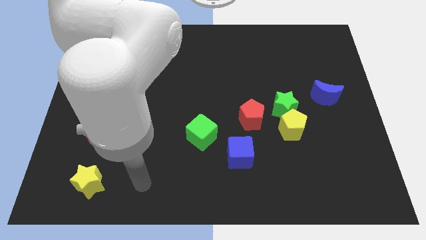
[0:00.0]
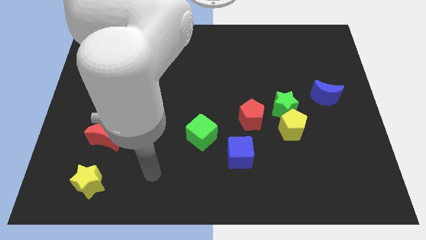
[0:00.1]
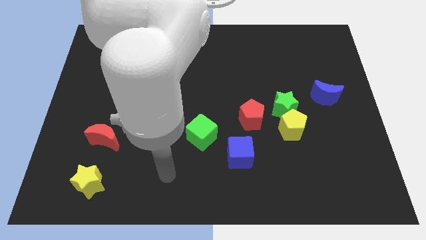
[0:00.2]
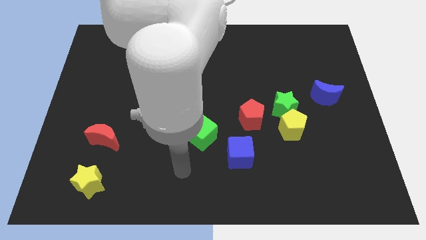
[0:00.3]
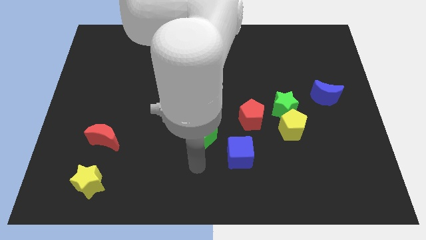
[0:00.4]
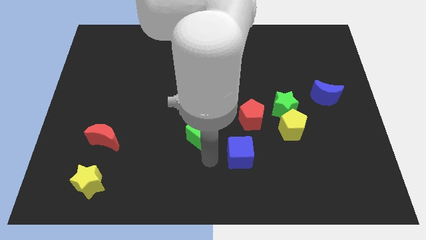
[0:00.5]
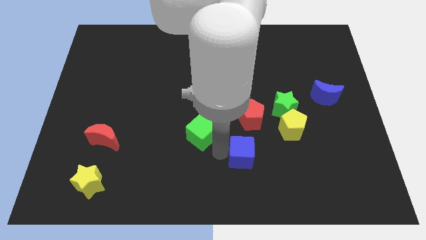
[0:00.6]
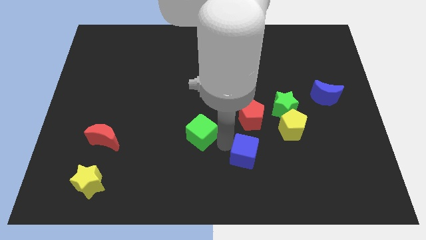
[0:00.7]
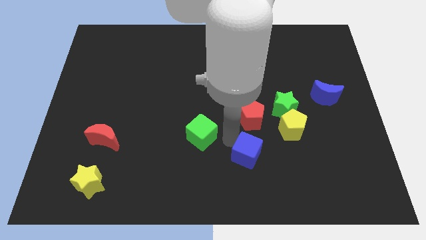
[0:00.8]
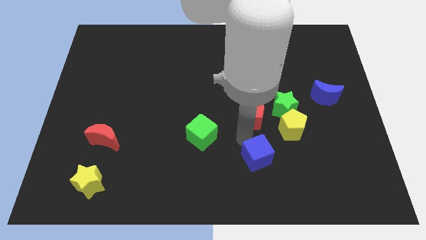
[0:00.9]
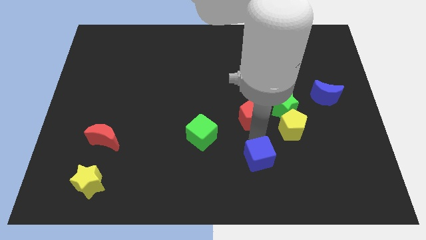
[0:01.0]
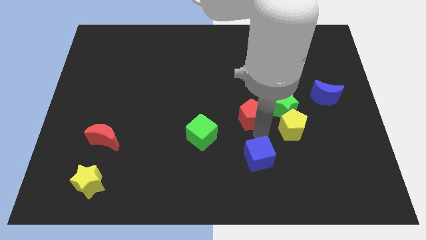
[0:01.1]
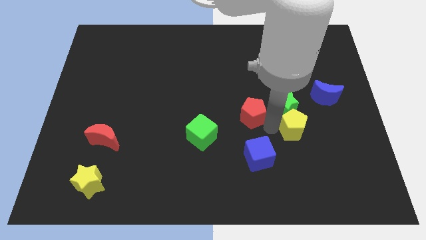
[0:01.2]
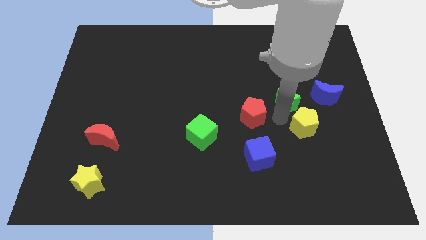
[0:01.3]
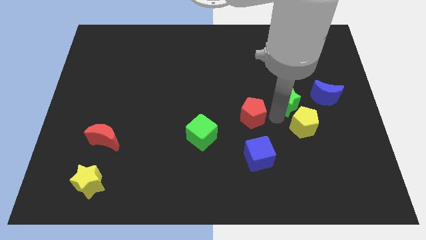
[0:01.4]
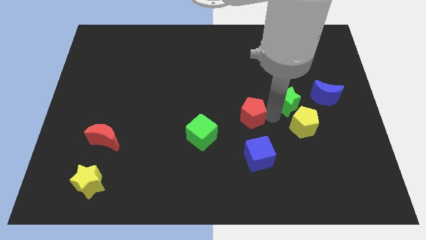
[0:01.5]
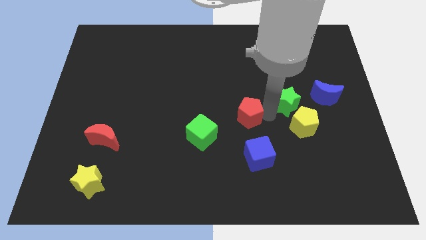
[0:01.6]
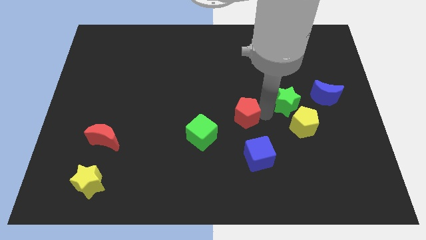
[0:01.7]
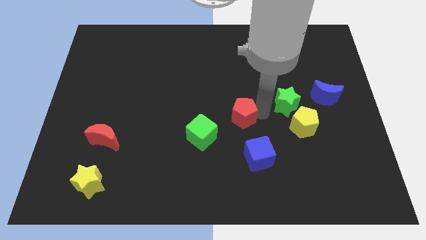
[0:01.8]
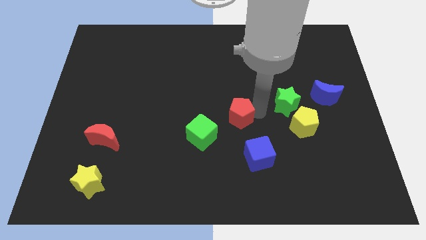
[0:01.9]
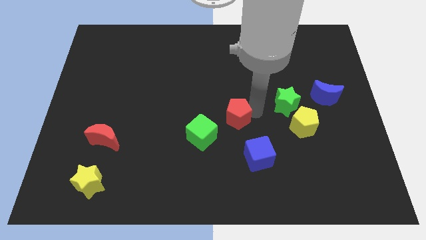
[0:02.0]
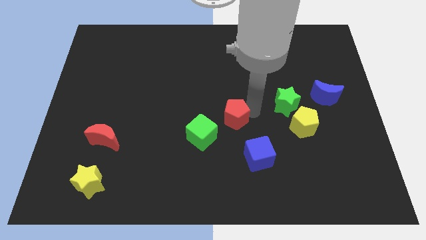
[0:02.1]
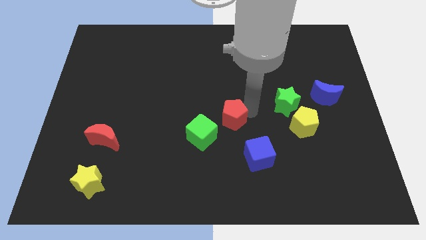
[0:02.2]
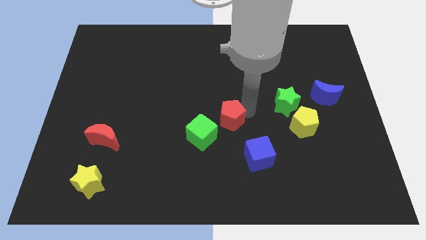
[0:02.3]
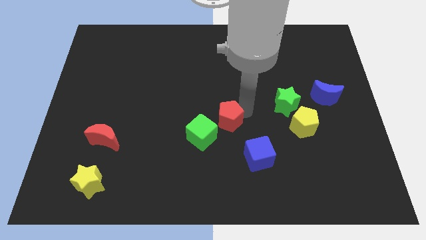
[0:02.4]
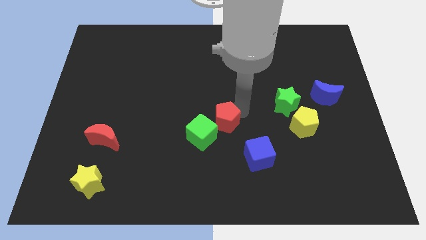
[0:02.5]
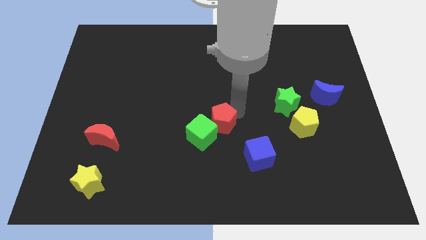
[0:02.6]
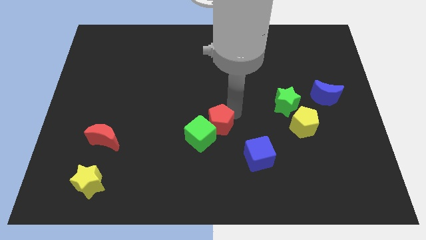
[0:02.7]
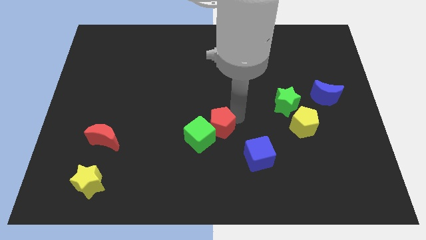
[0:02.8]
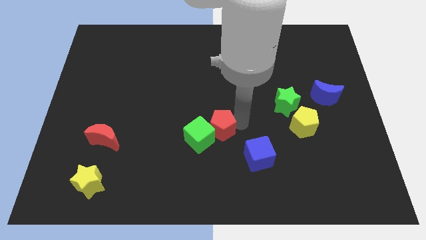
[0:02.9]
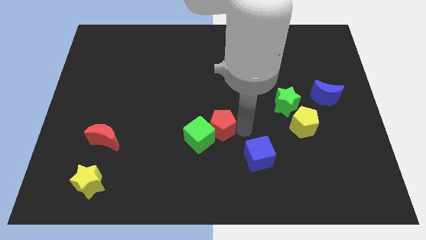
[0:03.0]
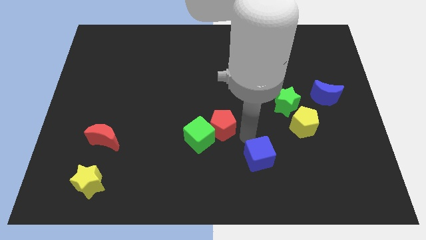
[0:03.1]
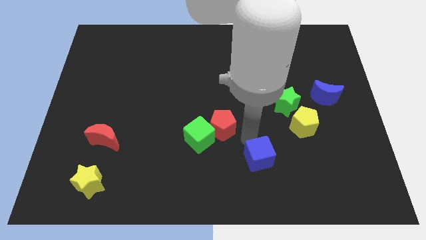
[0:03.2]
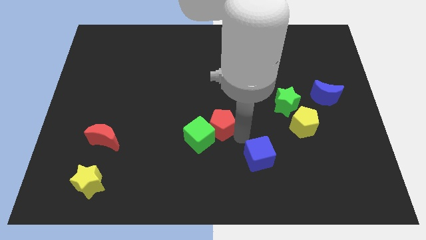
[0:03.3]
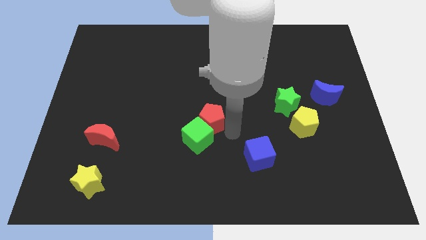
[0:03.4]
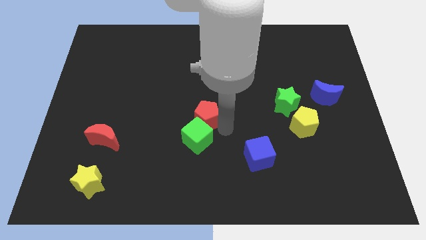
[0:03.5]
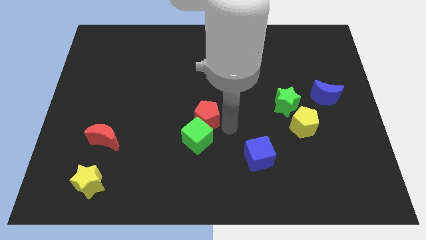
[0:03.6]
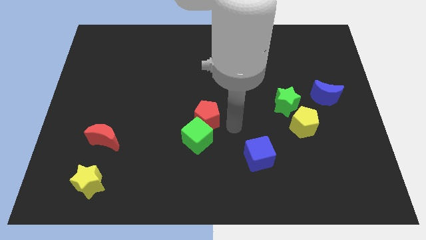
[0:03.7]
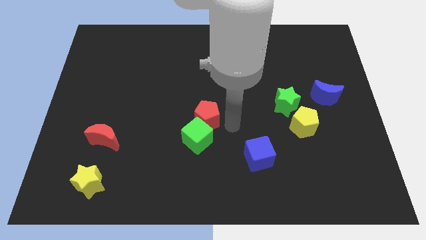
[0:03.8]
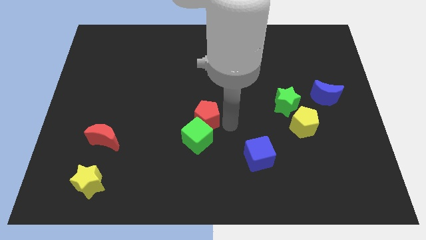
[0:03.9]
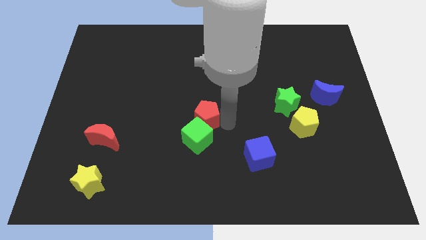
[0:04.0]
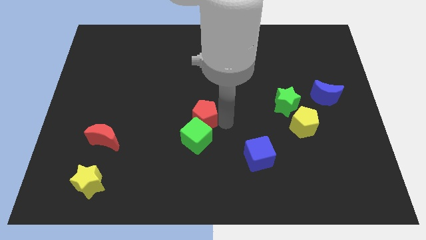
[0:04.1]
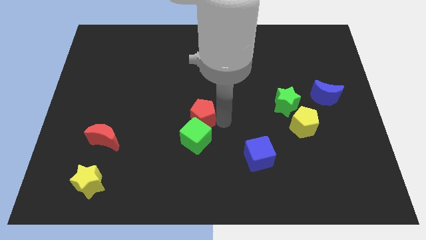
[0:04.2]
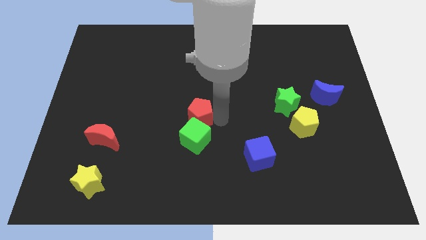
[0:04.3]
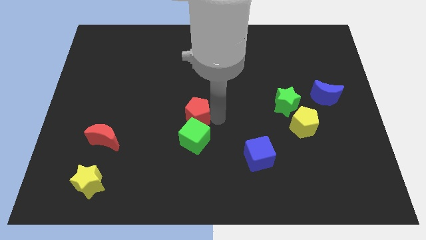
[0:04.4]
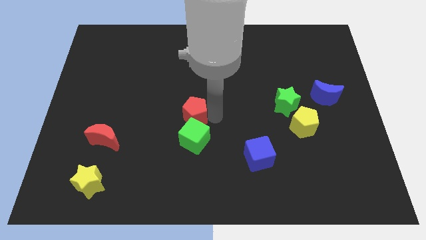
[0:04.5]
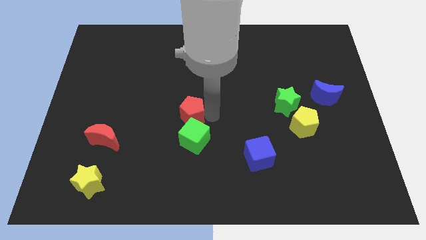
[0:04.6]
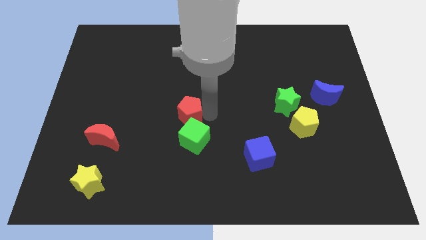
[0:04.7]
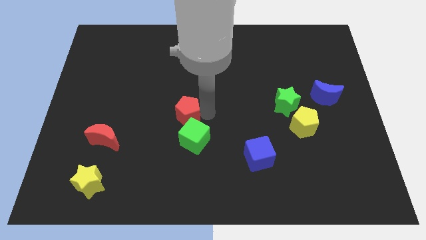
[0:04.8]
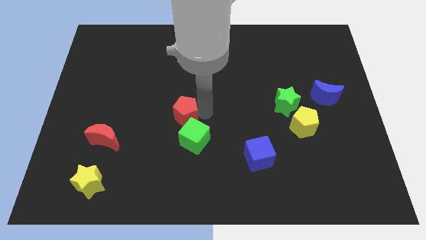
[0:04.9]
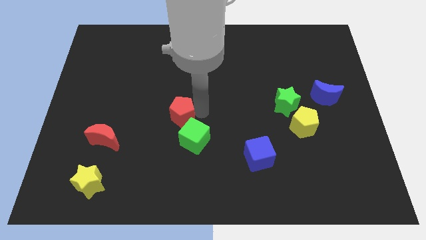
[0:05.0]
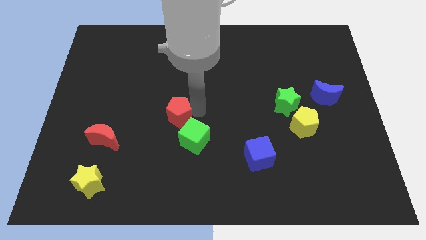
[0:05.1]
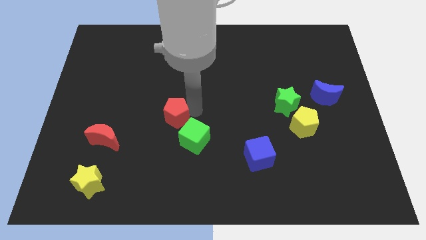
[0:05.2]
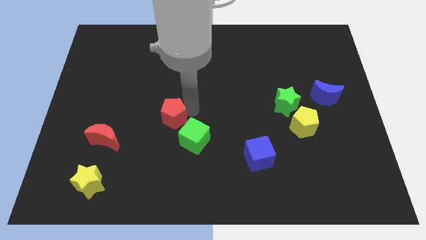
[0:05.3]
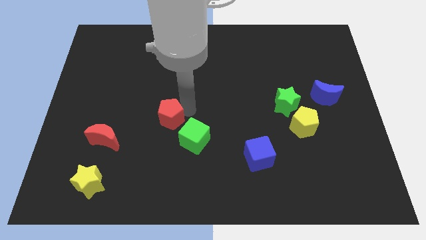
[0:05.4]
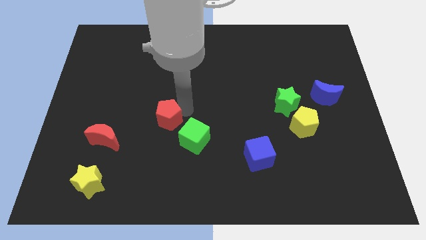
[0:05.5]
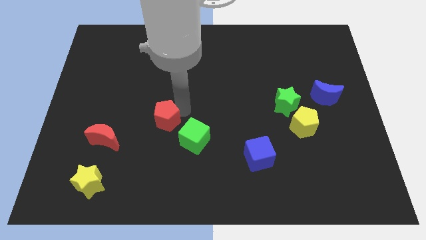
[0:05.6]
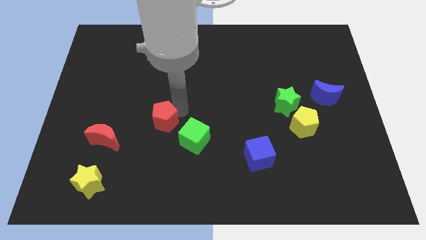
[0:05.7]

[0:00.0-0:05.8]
push the red pentagon to the left

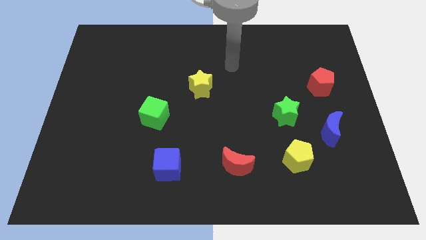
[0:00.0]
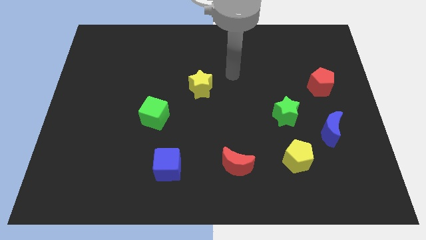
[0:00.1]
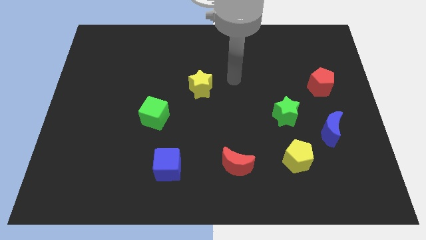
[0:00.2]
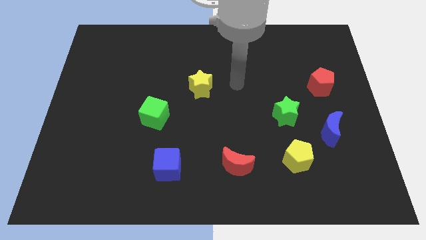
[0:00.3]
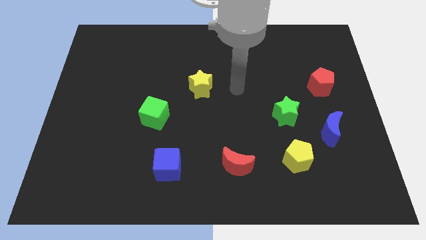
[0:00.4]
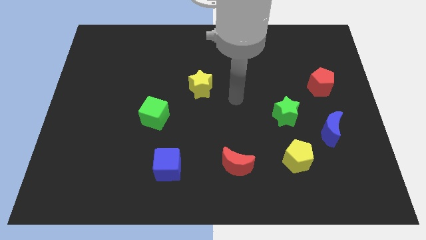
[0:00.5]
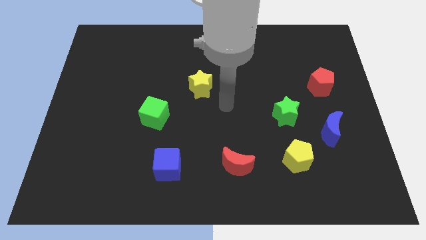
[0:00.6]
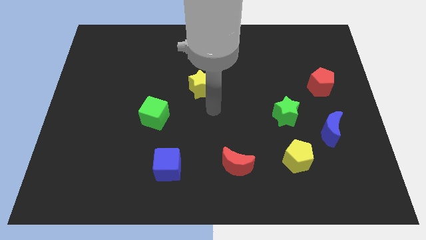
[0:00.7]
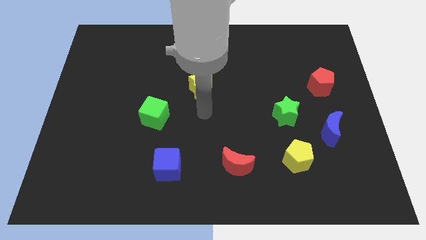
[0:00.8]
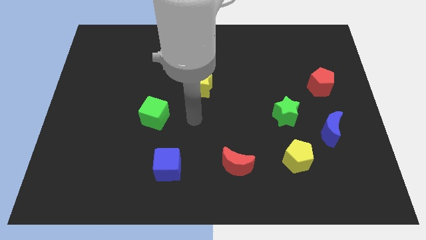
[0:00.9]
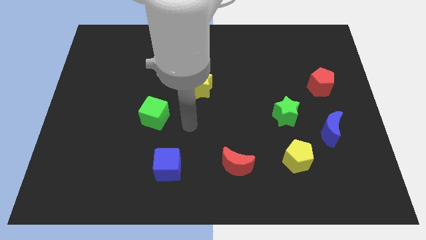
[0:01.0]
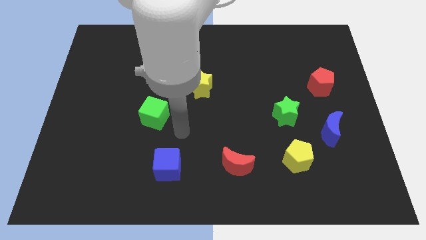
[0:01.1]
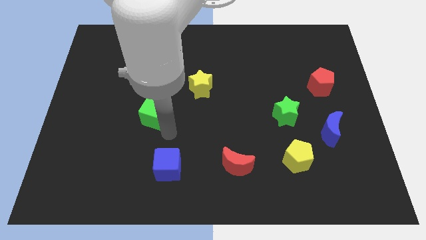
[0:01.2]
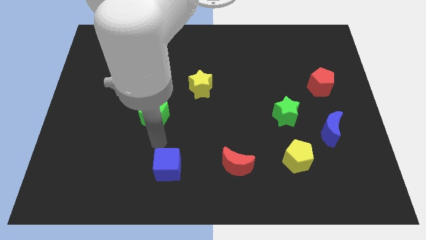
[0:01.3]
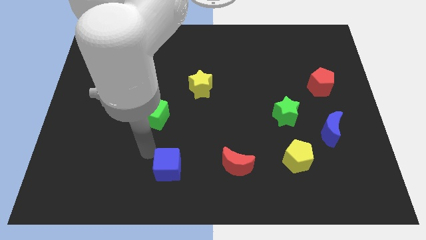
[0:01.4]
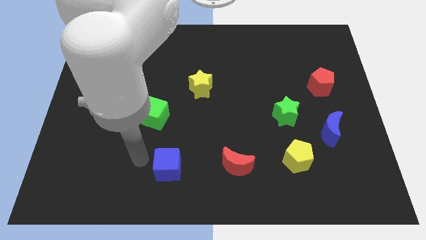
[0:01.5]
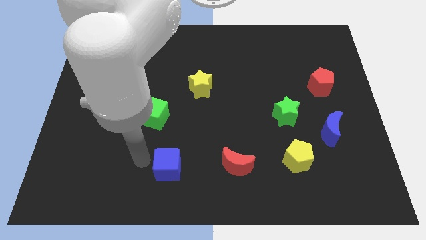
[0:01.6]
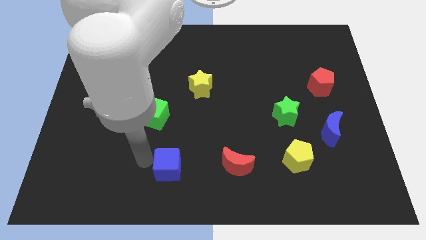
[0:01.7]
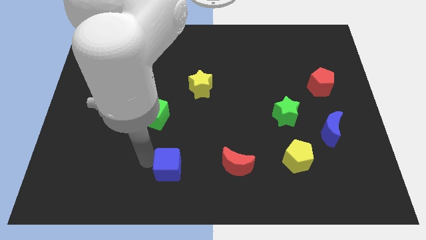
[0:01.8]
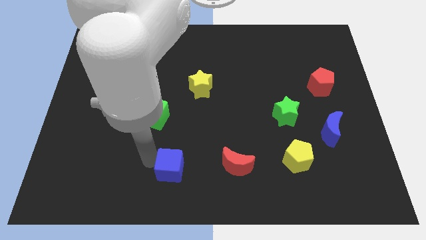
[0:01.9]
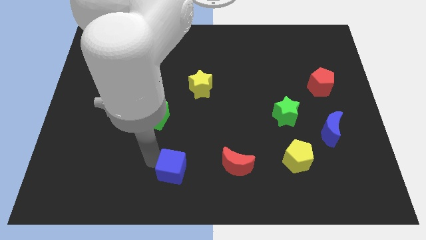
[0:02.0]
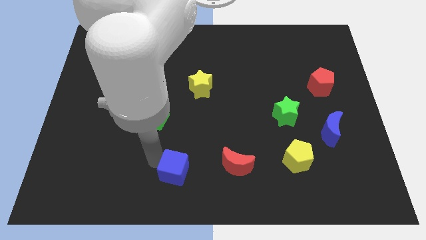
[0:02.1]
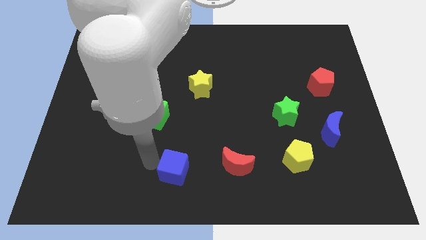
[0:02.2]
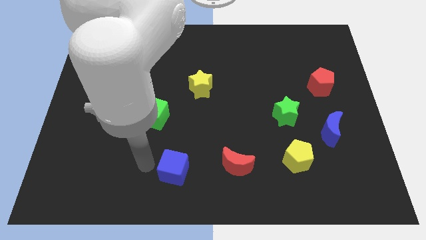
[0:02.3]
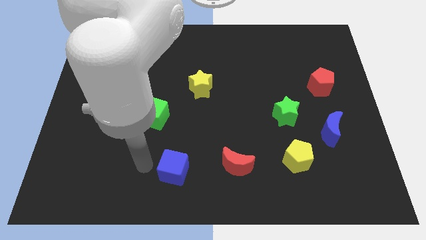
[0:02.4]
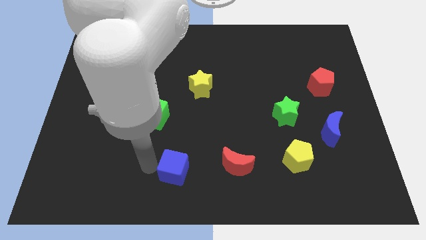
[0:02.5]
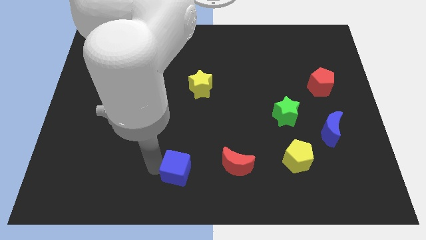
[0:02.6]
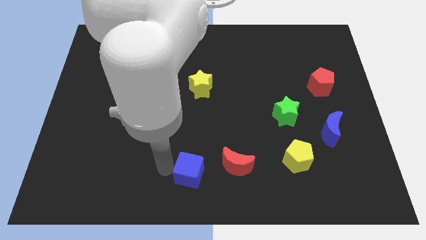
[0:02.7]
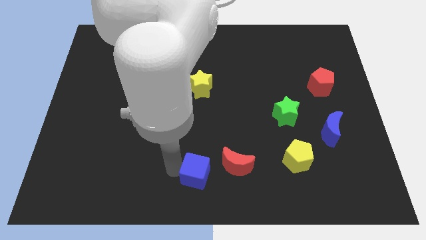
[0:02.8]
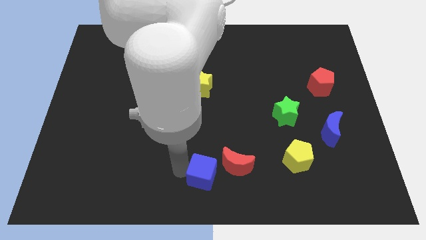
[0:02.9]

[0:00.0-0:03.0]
move the blue cube right a little
